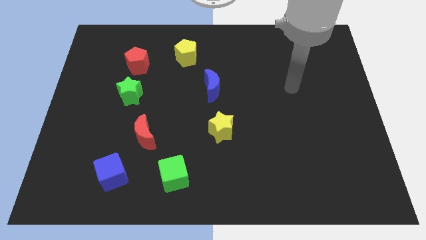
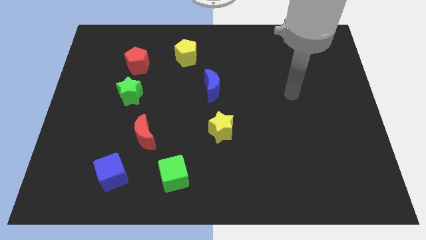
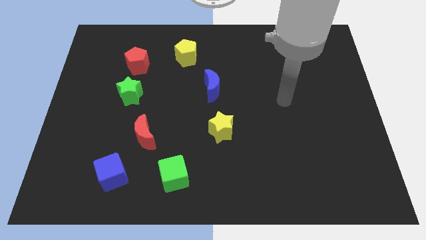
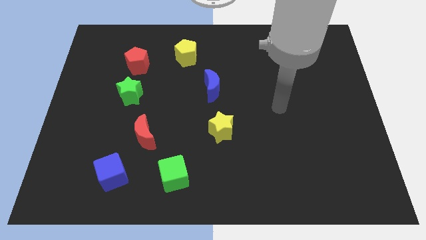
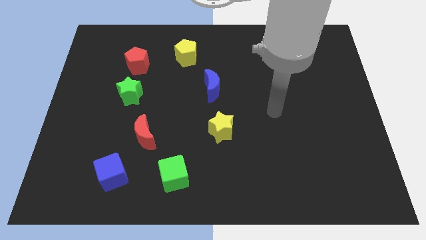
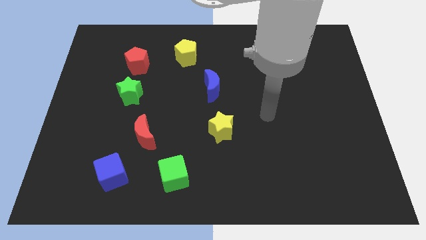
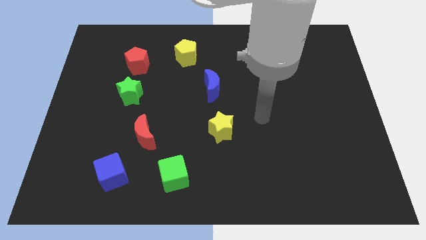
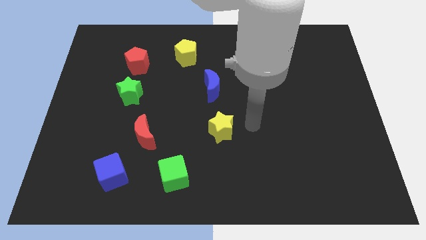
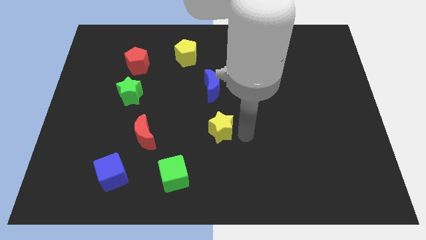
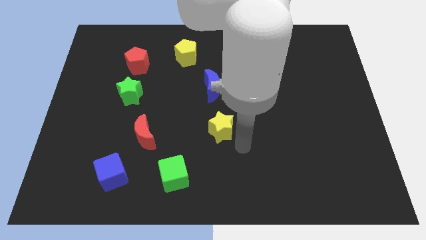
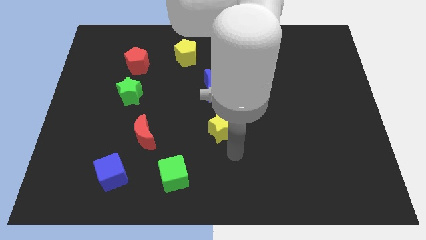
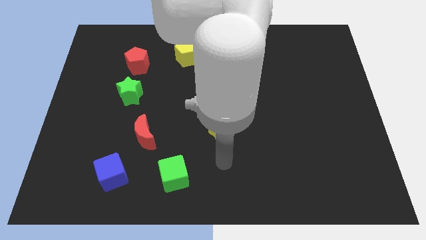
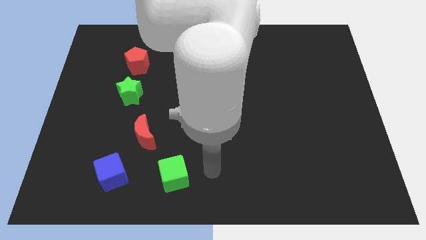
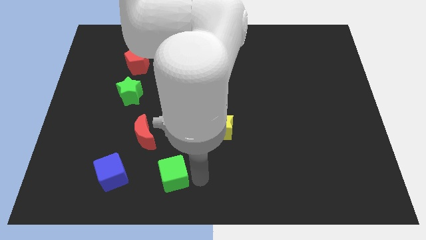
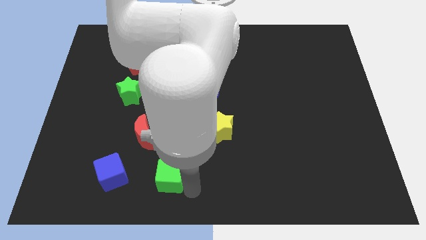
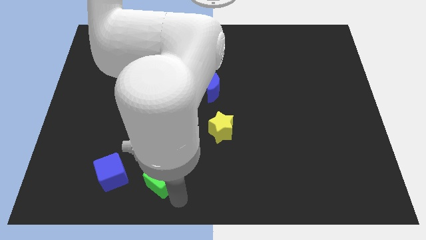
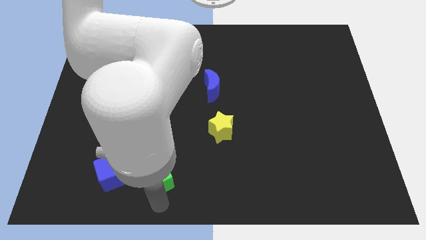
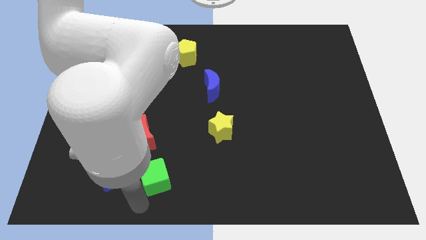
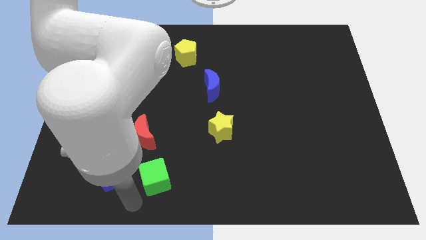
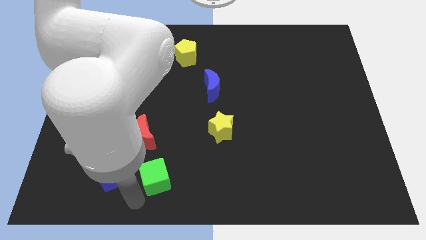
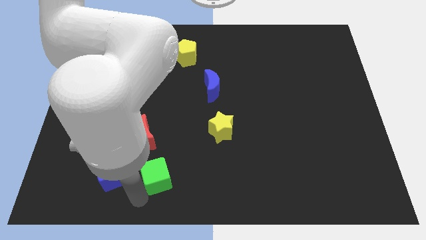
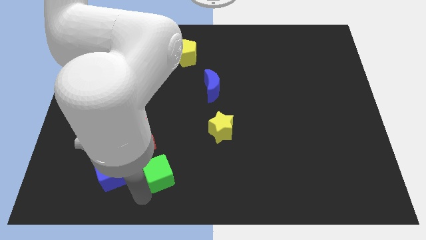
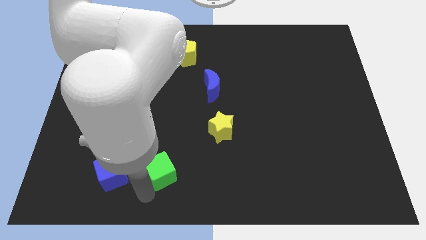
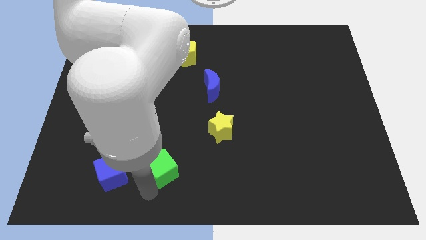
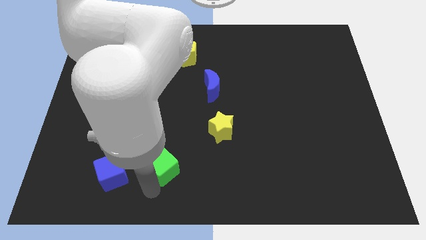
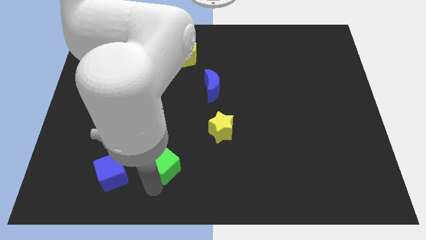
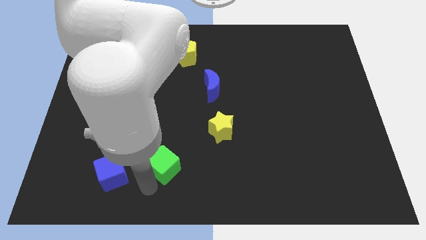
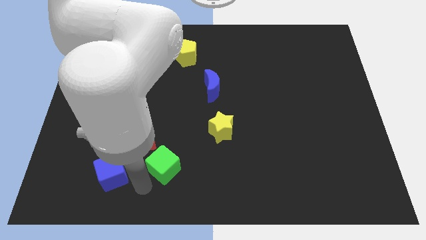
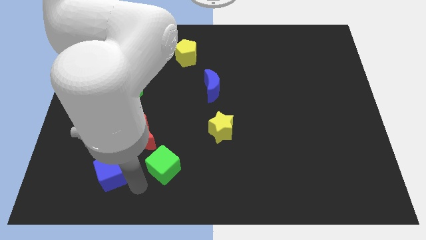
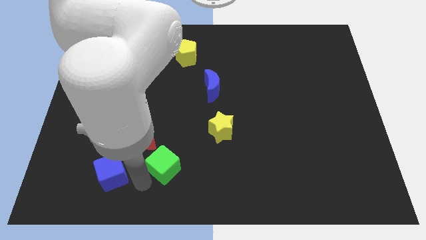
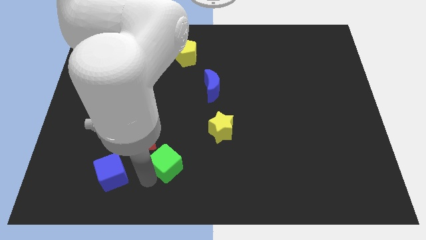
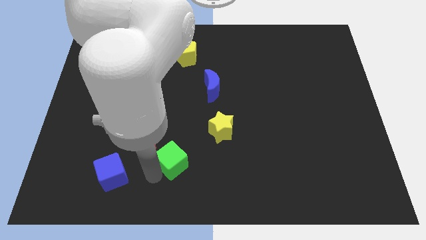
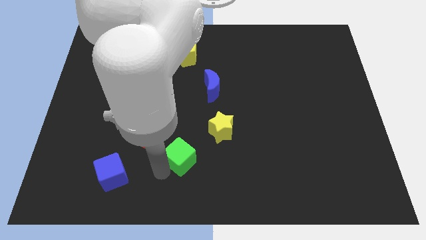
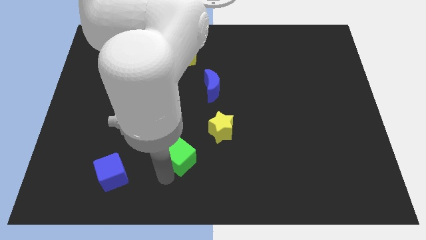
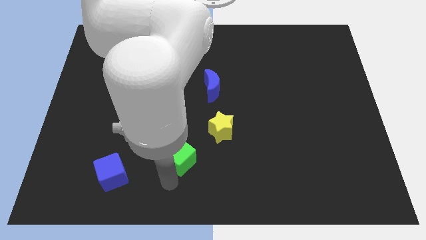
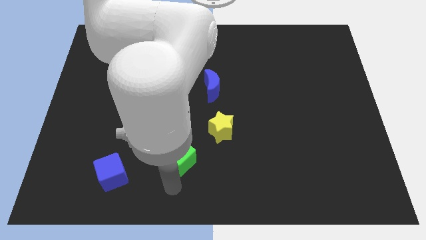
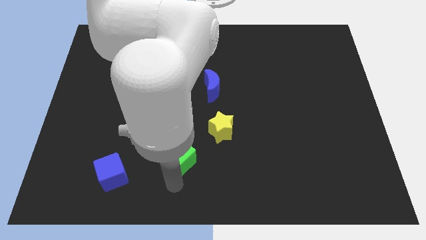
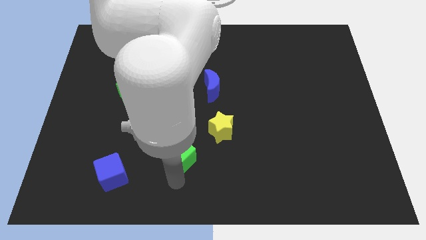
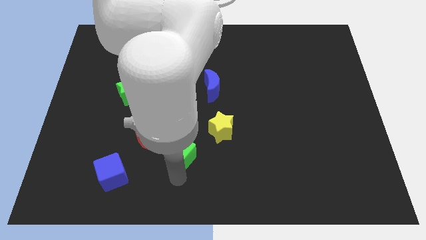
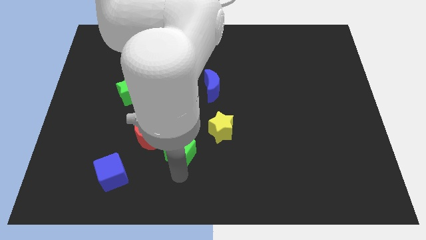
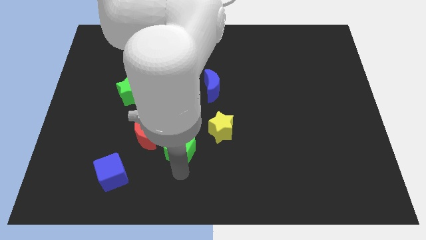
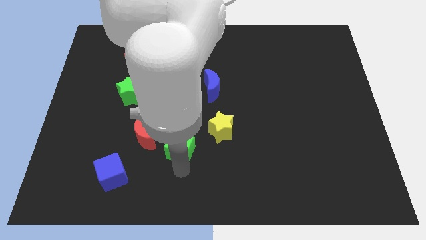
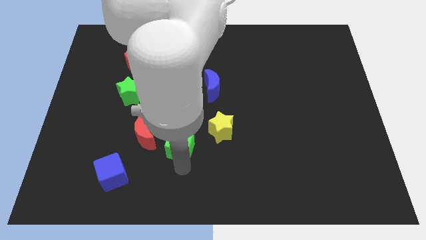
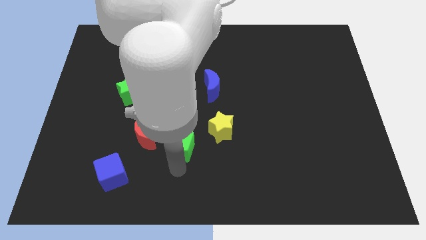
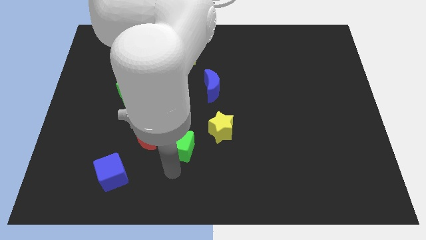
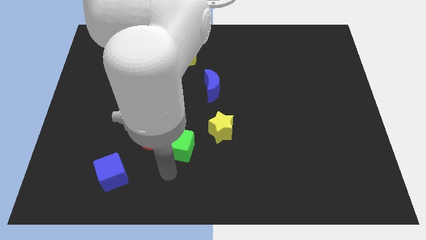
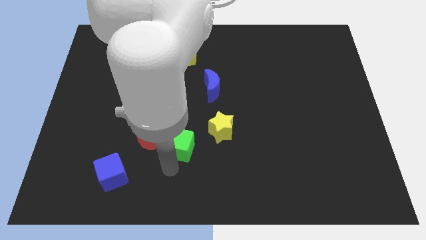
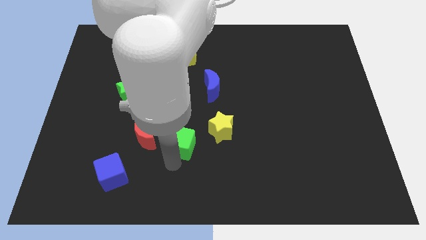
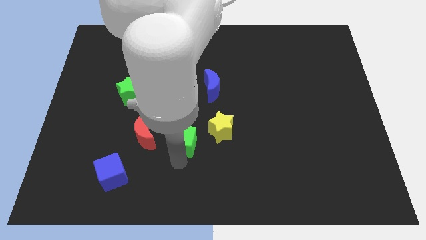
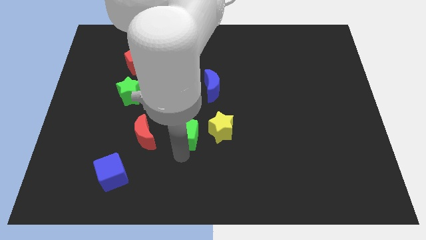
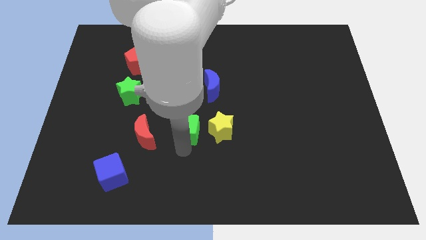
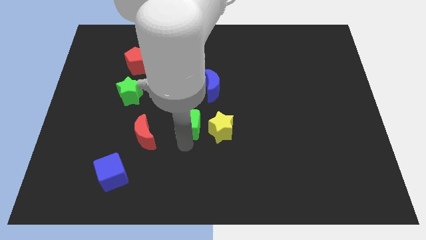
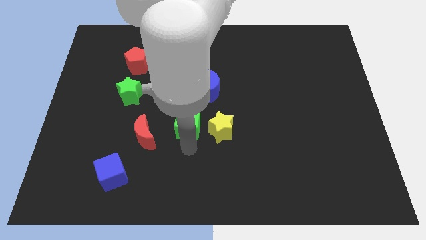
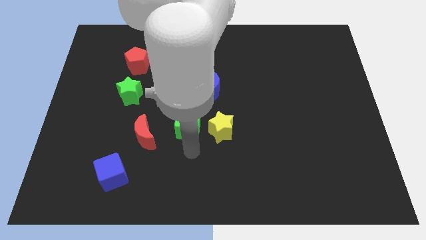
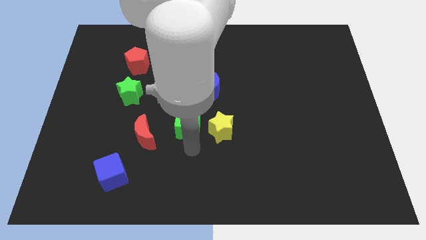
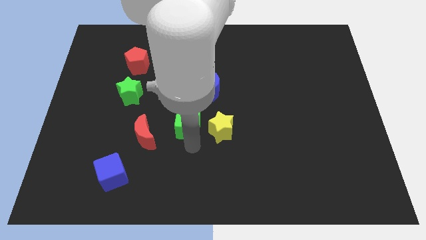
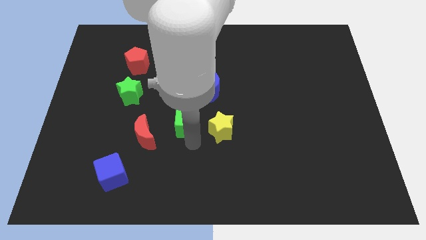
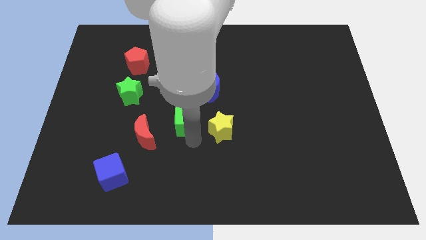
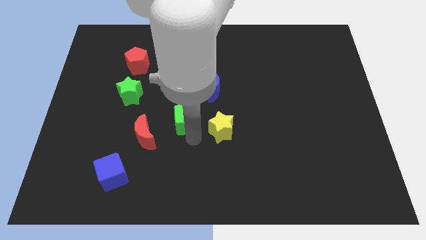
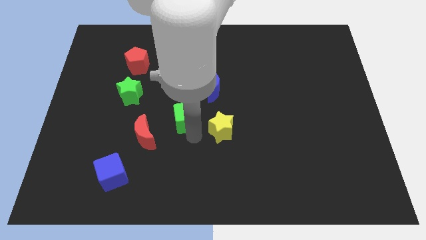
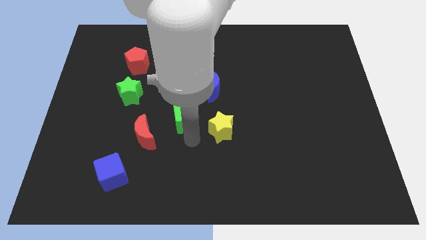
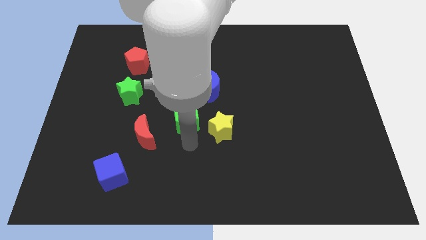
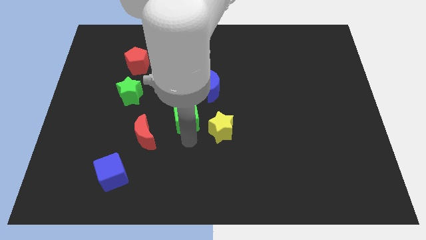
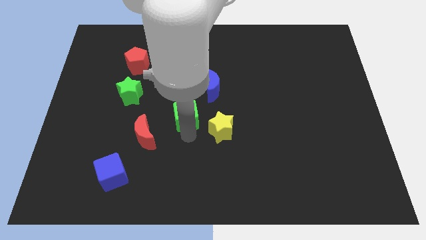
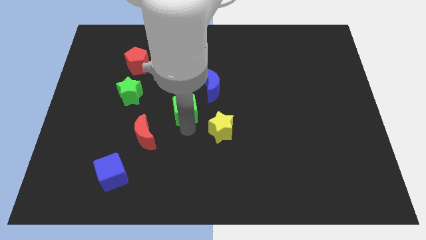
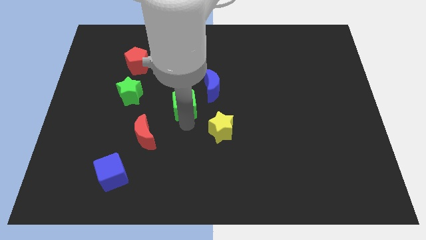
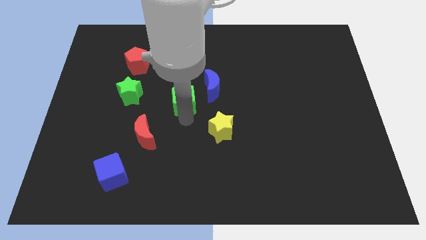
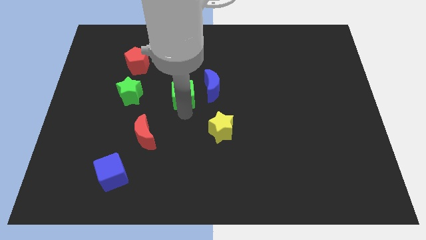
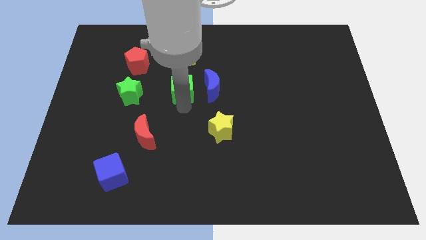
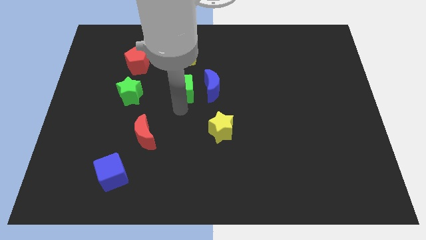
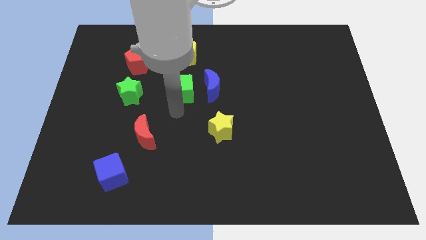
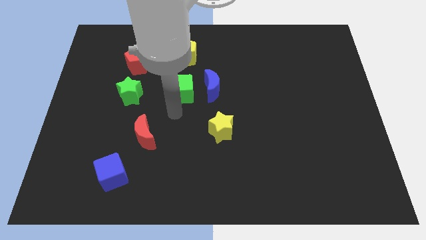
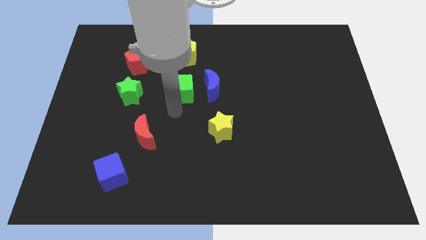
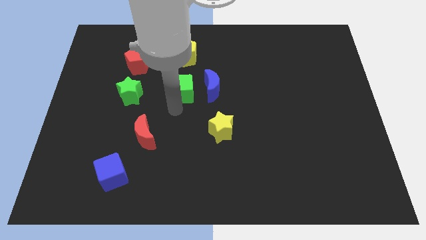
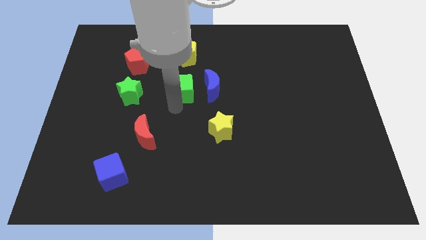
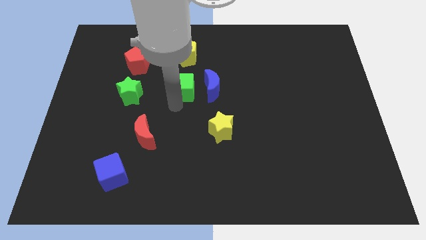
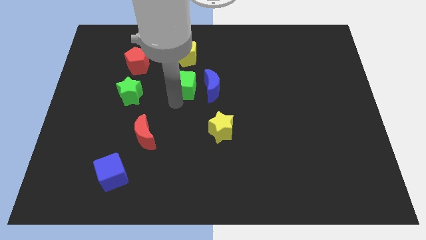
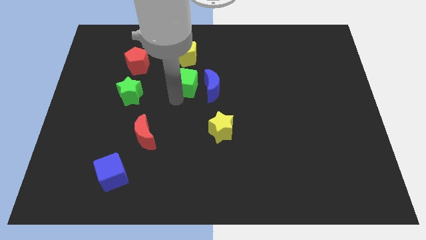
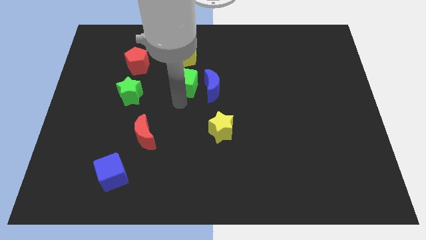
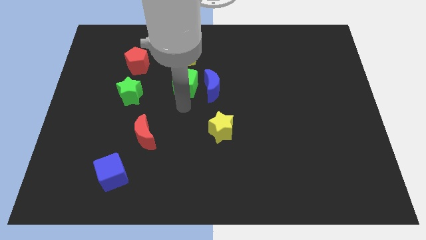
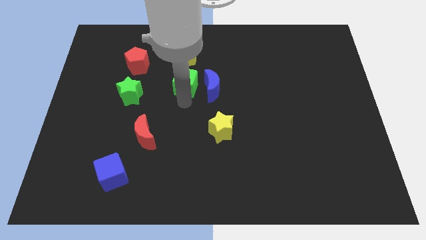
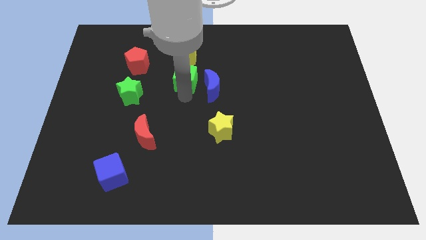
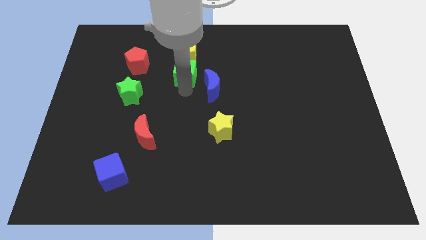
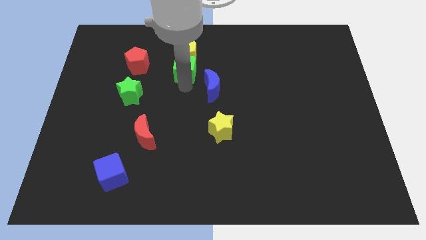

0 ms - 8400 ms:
move the green cube towards the yellow pentagon
